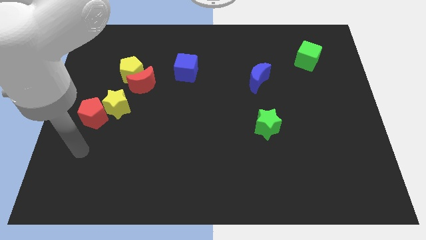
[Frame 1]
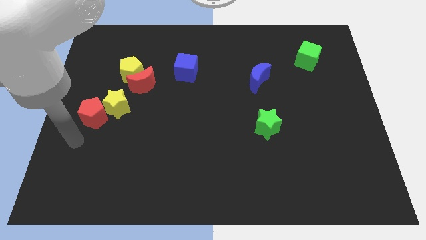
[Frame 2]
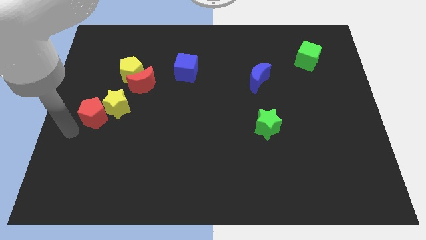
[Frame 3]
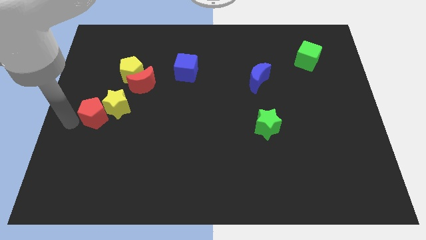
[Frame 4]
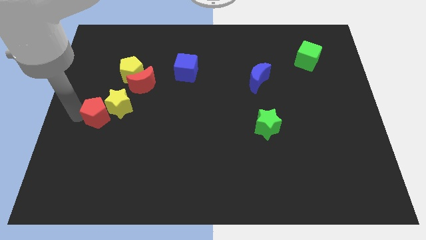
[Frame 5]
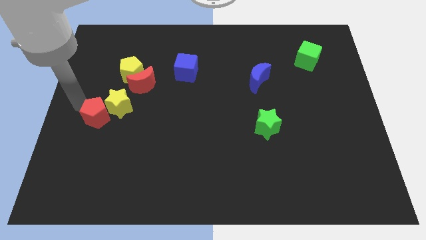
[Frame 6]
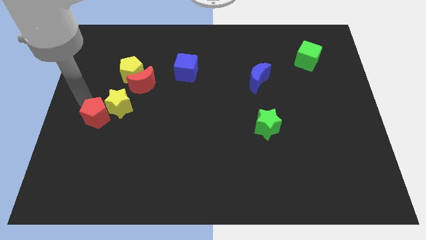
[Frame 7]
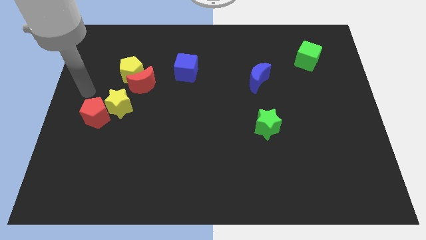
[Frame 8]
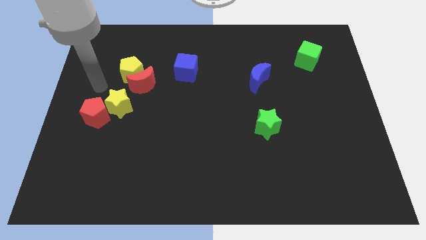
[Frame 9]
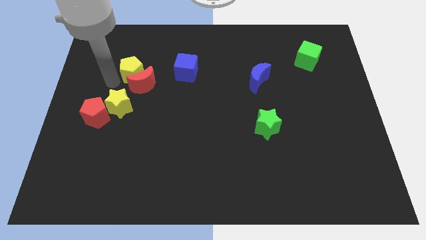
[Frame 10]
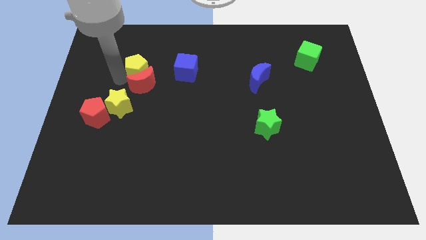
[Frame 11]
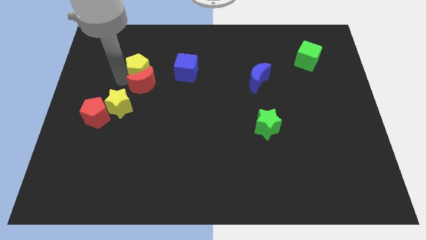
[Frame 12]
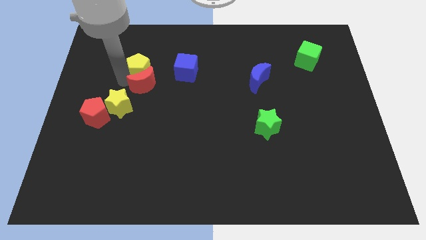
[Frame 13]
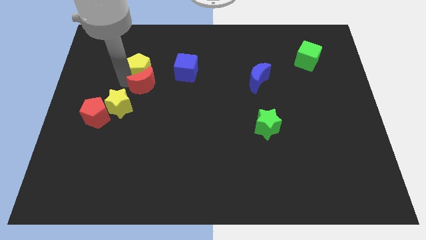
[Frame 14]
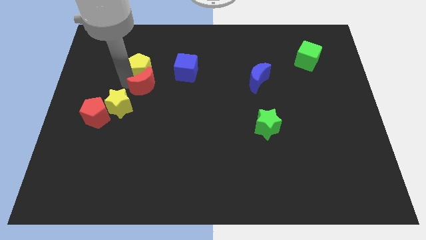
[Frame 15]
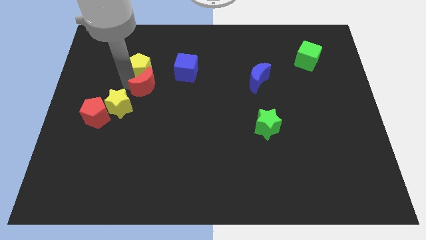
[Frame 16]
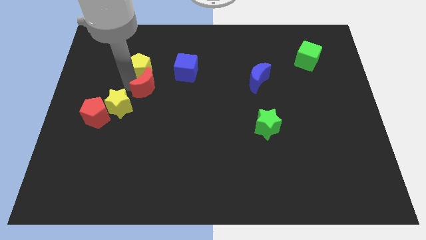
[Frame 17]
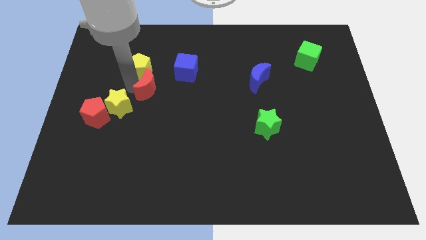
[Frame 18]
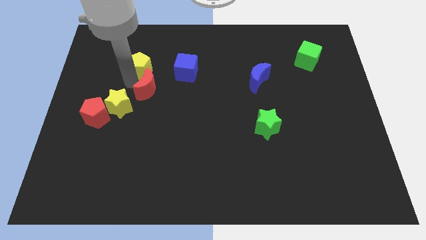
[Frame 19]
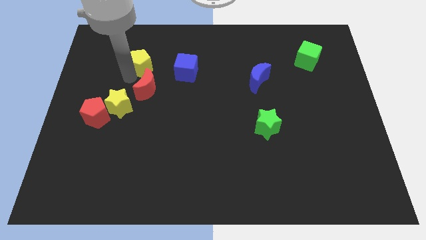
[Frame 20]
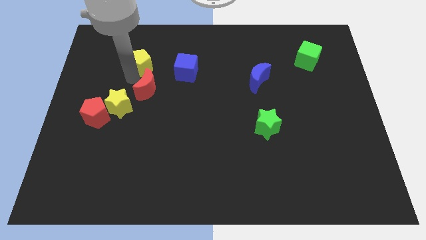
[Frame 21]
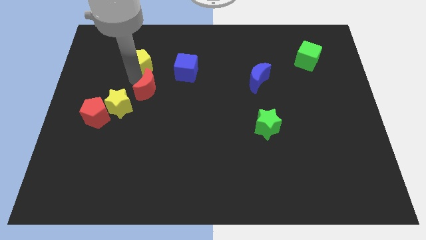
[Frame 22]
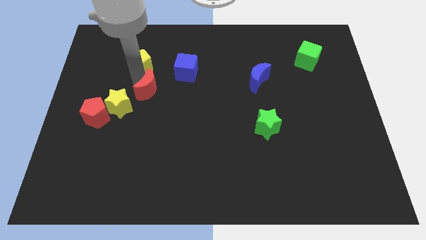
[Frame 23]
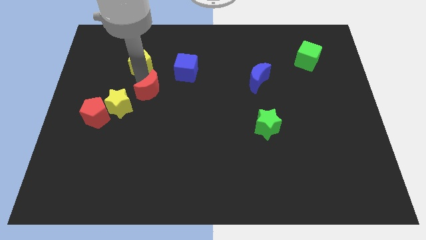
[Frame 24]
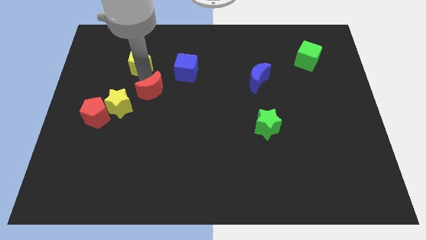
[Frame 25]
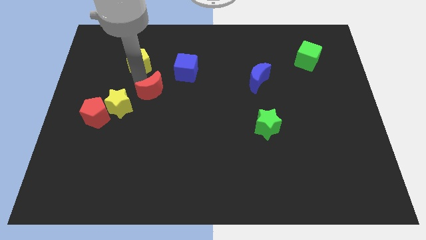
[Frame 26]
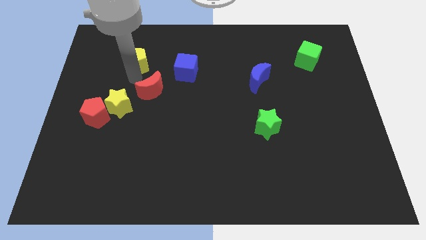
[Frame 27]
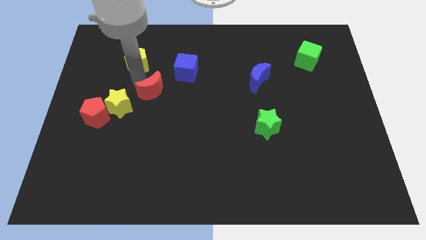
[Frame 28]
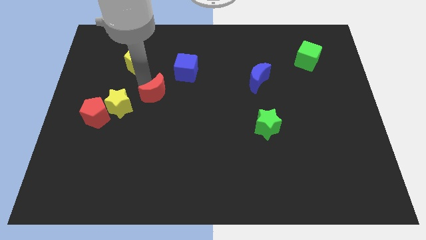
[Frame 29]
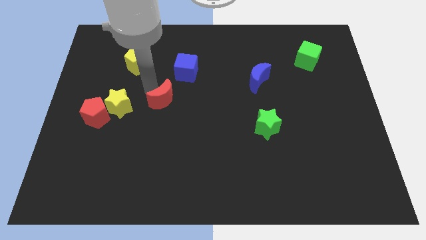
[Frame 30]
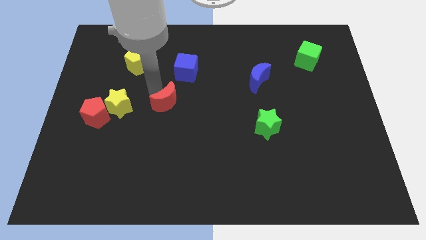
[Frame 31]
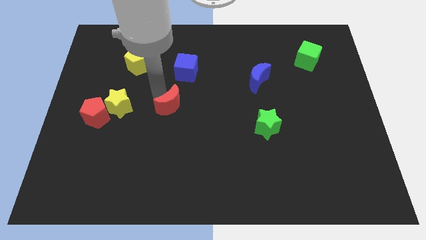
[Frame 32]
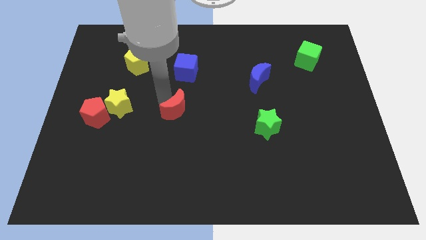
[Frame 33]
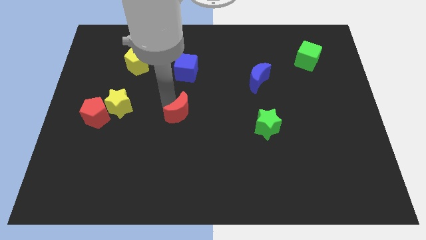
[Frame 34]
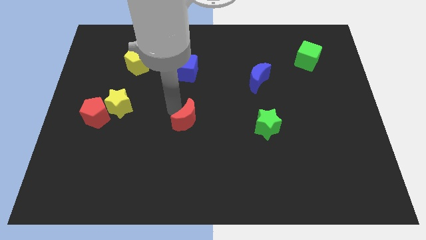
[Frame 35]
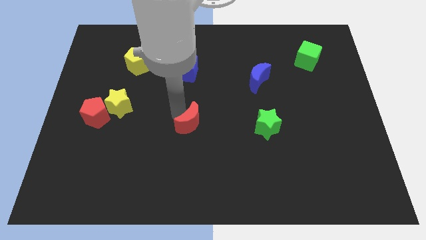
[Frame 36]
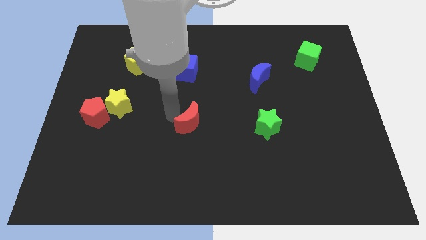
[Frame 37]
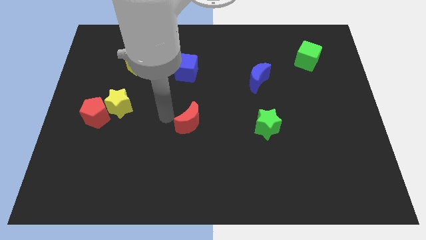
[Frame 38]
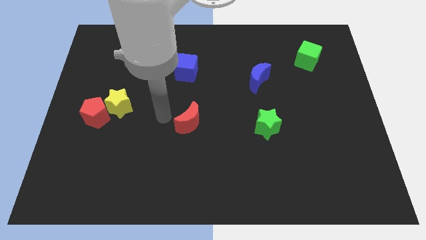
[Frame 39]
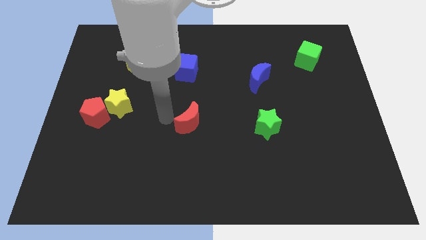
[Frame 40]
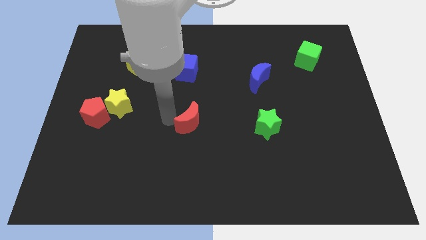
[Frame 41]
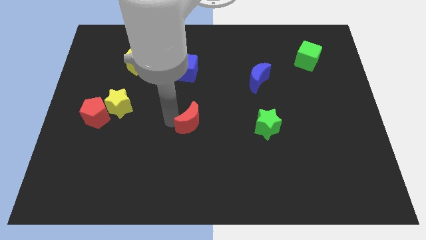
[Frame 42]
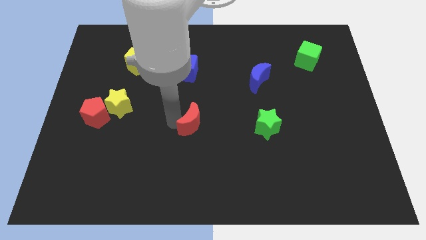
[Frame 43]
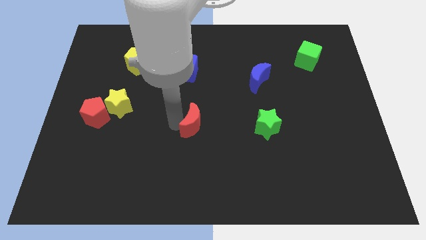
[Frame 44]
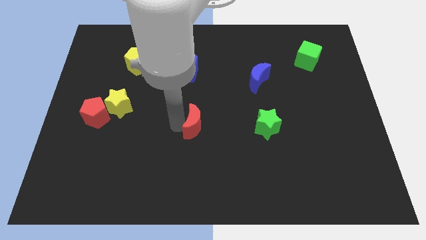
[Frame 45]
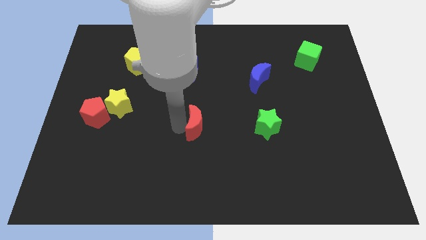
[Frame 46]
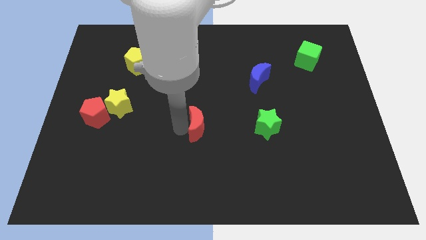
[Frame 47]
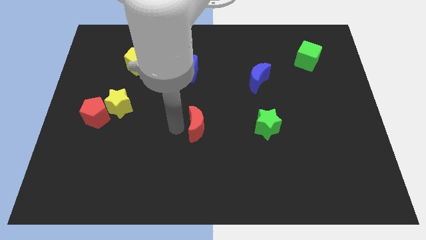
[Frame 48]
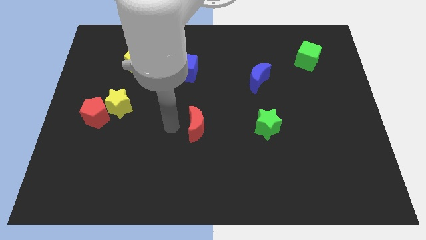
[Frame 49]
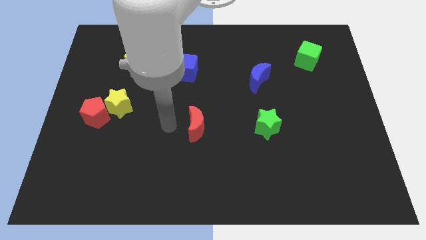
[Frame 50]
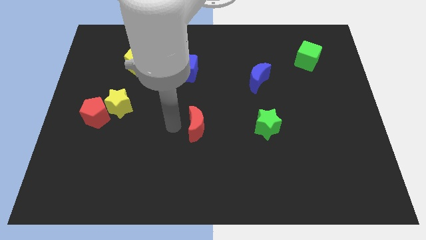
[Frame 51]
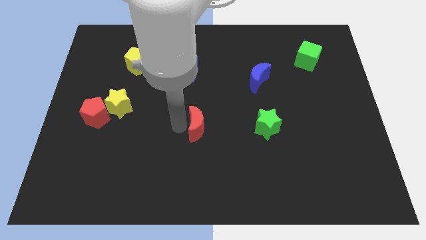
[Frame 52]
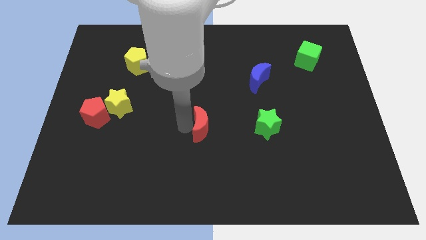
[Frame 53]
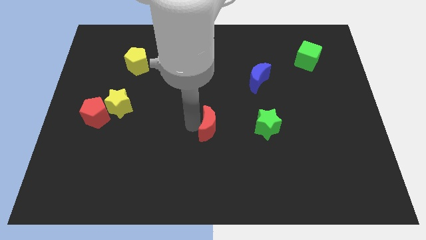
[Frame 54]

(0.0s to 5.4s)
push the red moon down and right

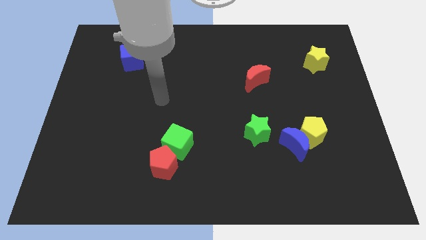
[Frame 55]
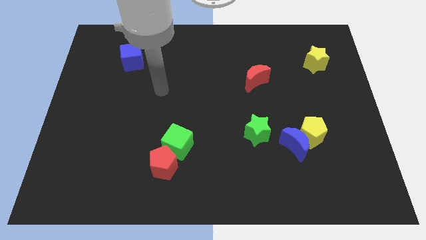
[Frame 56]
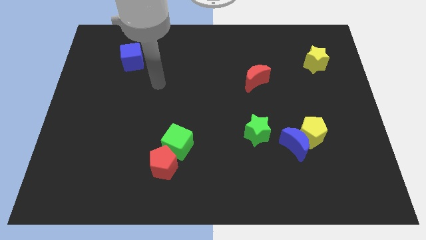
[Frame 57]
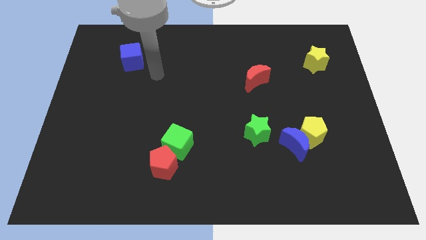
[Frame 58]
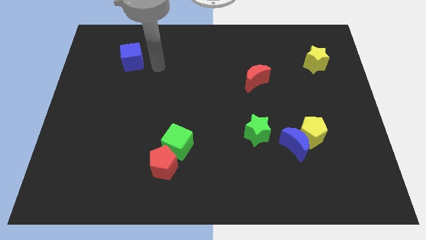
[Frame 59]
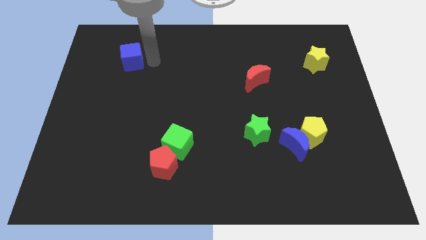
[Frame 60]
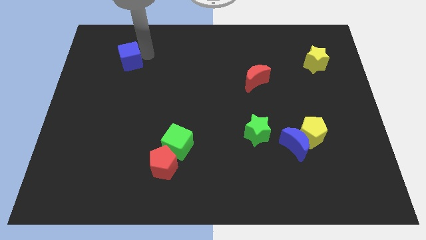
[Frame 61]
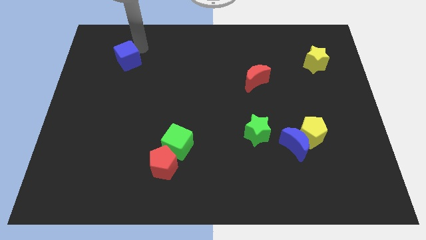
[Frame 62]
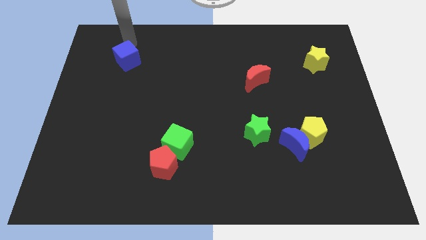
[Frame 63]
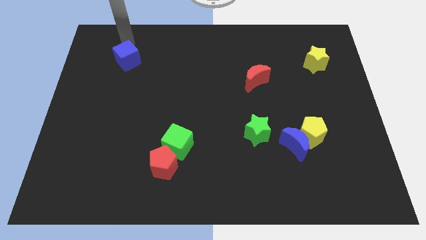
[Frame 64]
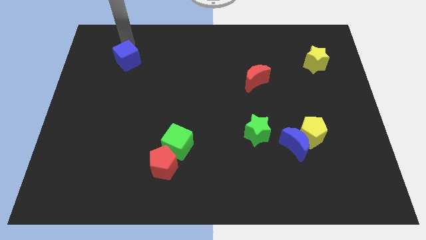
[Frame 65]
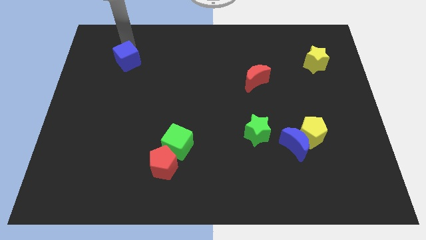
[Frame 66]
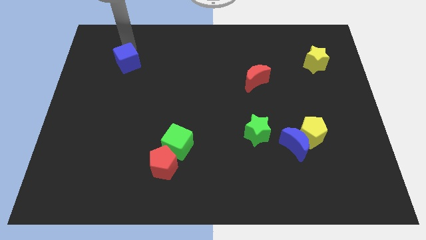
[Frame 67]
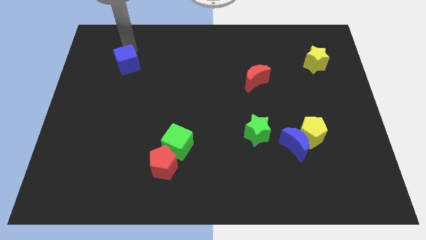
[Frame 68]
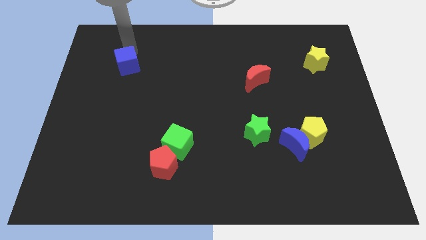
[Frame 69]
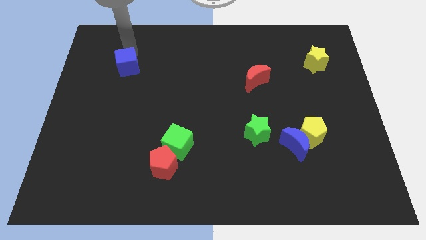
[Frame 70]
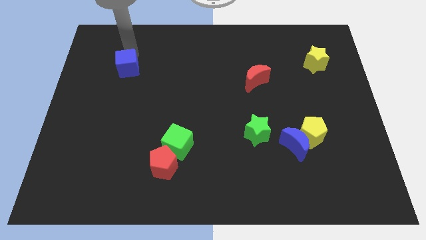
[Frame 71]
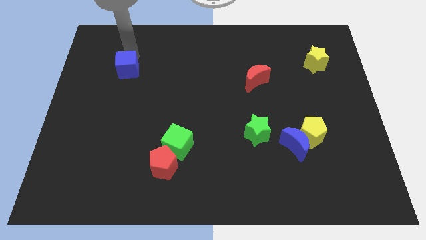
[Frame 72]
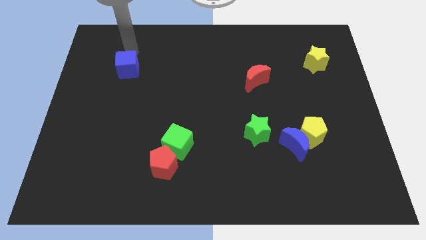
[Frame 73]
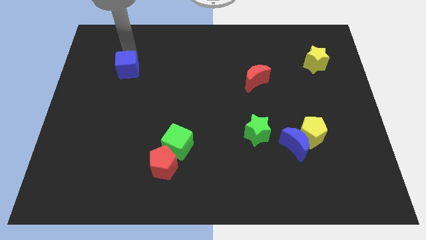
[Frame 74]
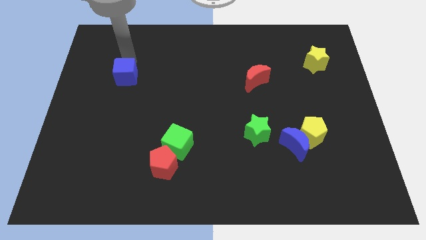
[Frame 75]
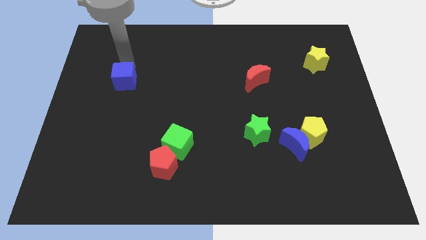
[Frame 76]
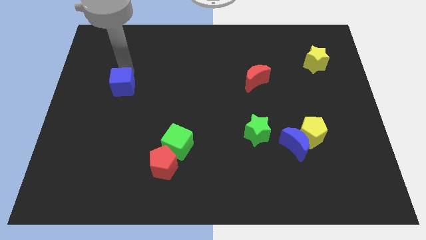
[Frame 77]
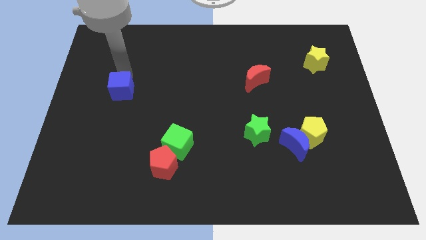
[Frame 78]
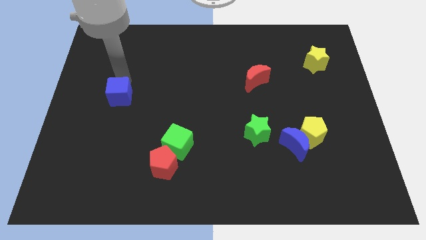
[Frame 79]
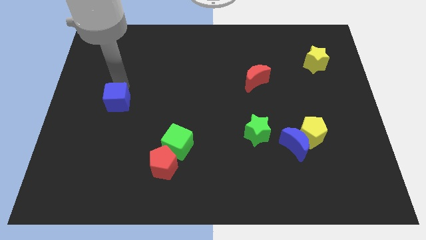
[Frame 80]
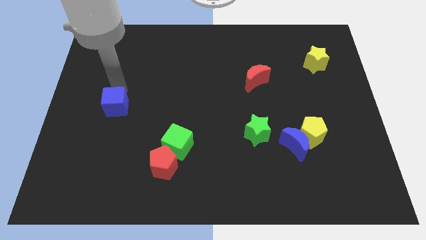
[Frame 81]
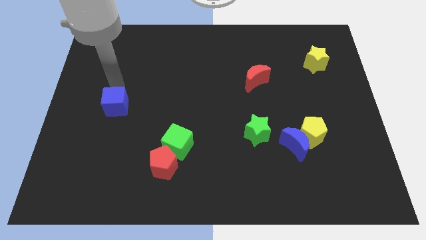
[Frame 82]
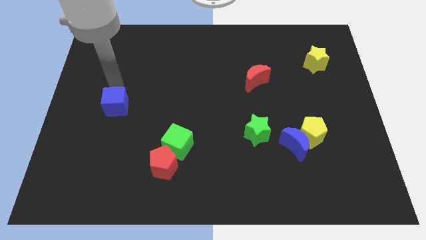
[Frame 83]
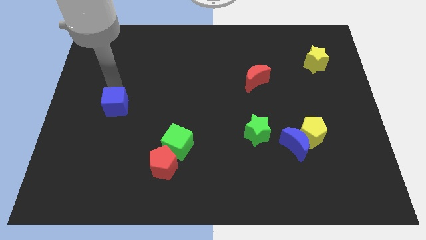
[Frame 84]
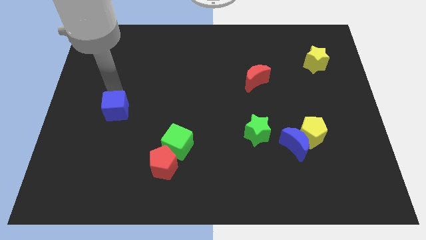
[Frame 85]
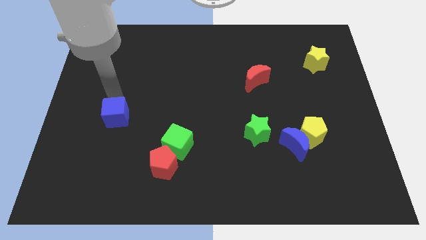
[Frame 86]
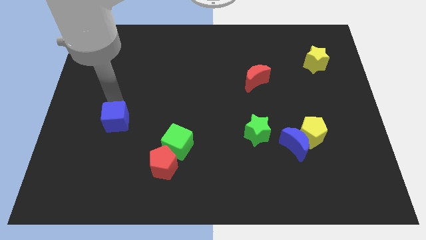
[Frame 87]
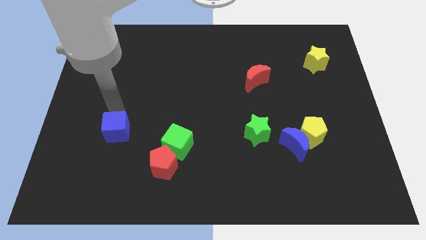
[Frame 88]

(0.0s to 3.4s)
push the blue cube downwards
